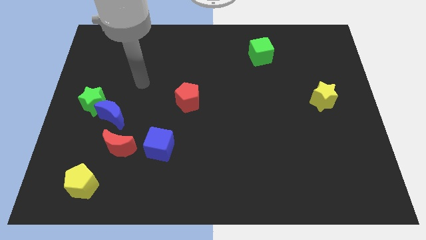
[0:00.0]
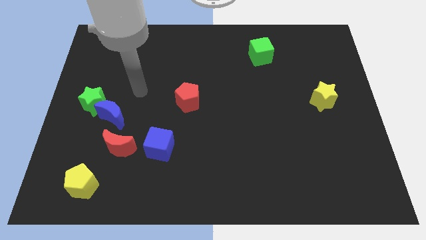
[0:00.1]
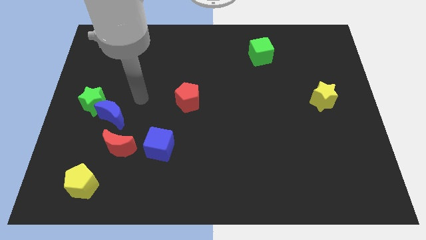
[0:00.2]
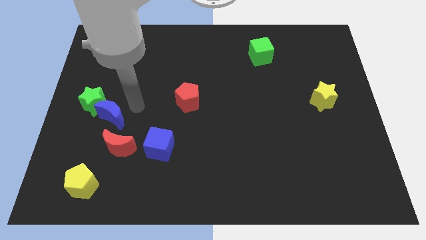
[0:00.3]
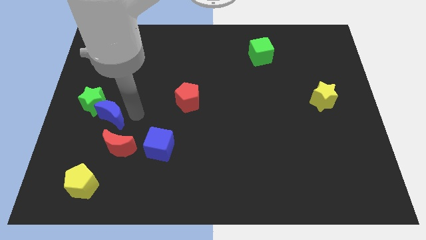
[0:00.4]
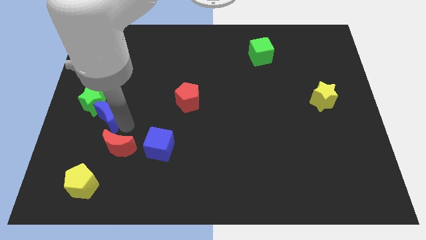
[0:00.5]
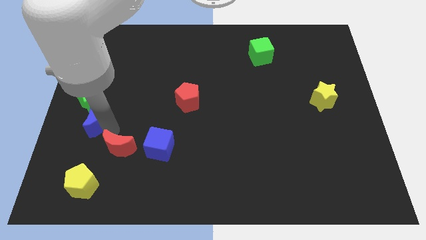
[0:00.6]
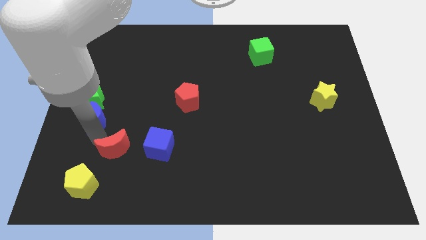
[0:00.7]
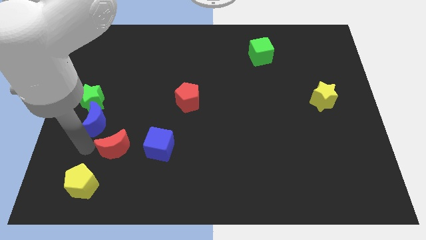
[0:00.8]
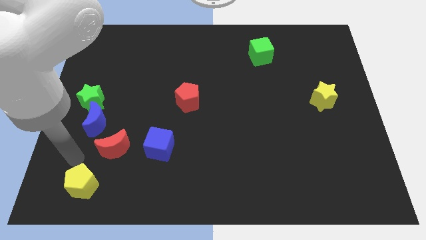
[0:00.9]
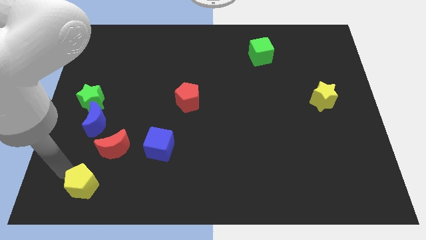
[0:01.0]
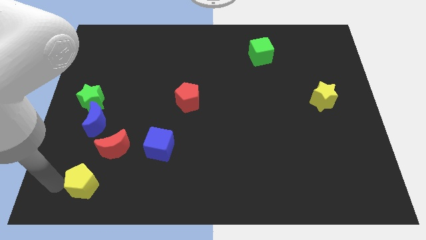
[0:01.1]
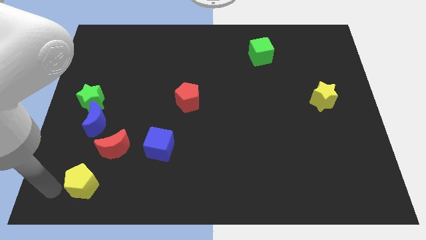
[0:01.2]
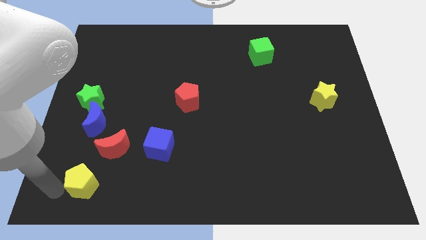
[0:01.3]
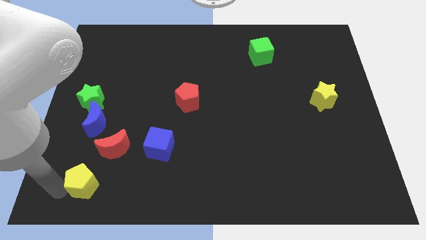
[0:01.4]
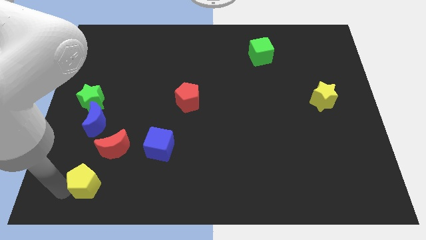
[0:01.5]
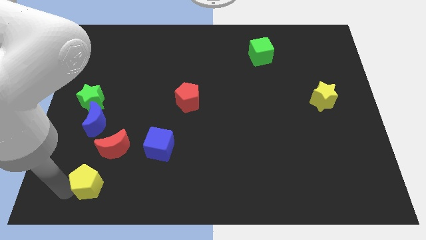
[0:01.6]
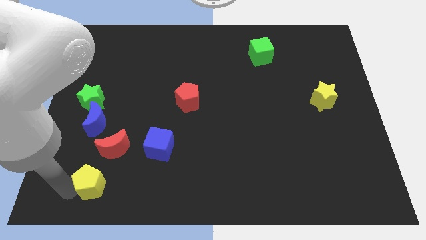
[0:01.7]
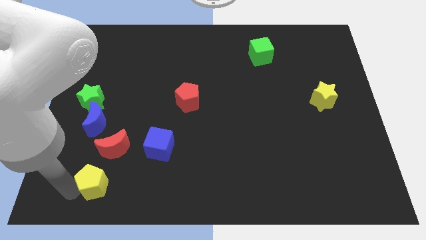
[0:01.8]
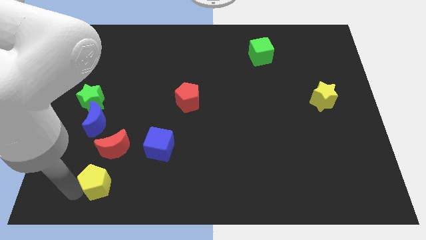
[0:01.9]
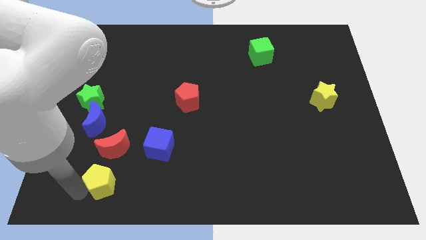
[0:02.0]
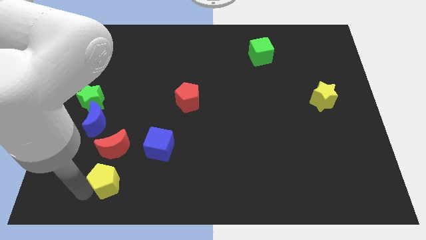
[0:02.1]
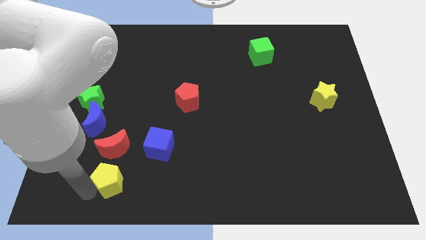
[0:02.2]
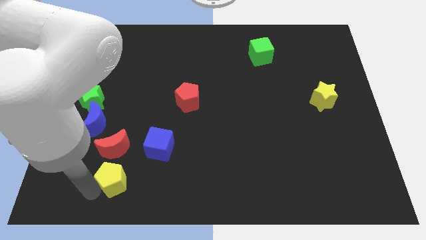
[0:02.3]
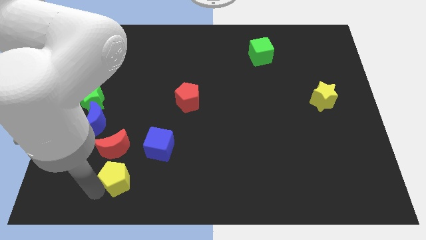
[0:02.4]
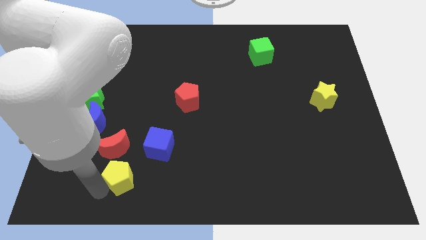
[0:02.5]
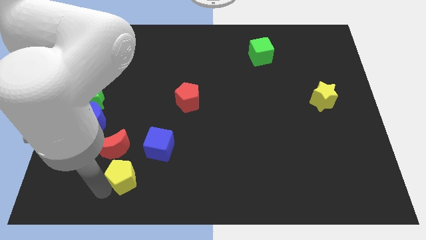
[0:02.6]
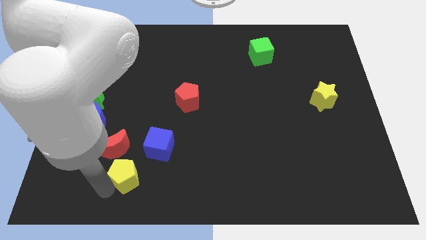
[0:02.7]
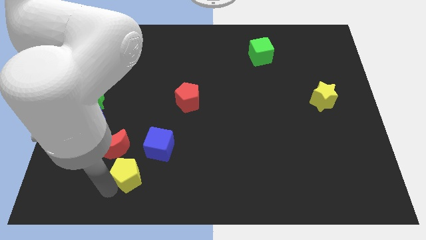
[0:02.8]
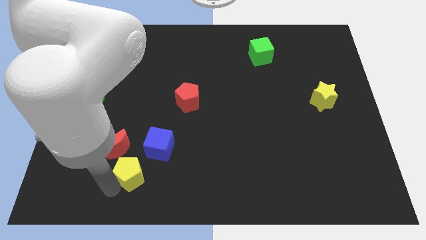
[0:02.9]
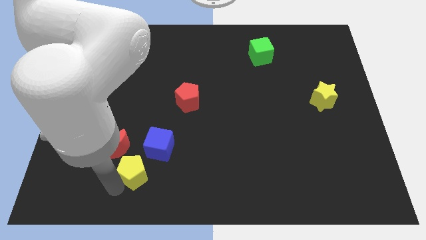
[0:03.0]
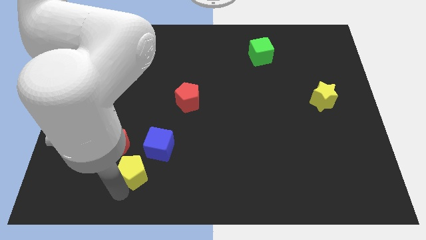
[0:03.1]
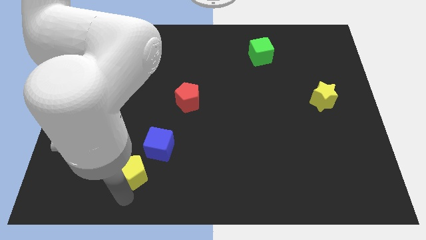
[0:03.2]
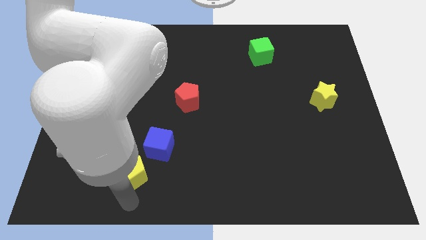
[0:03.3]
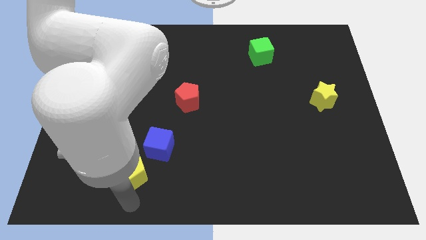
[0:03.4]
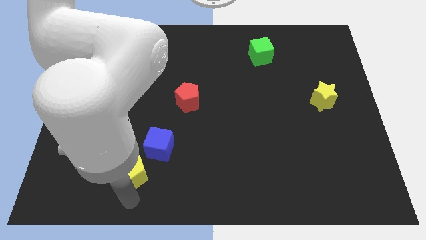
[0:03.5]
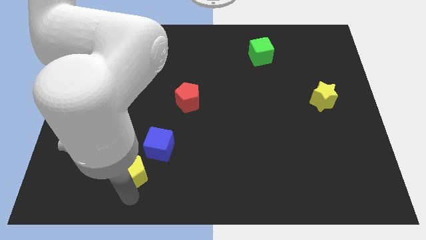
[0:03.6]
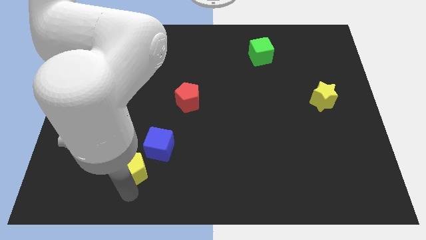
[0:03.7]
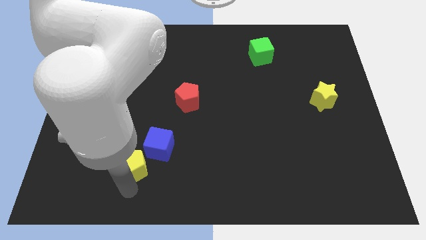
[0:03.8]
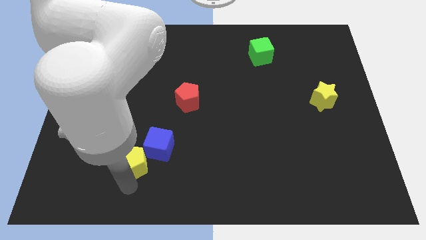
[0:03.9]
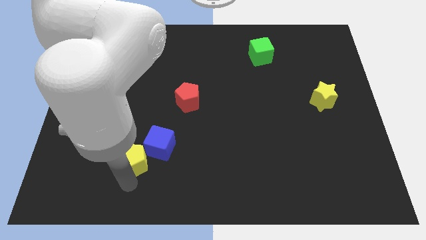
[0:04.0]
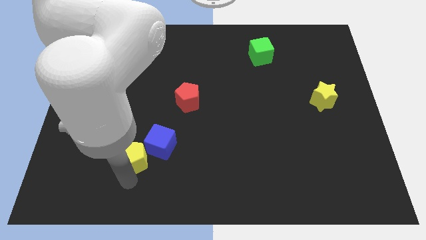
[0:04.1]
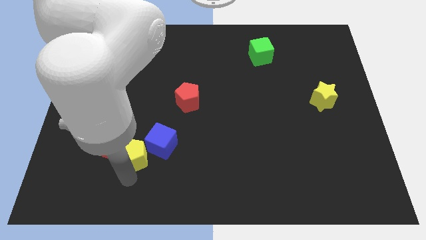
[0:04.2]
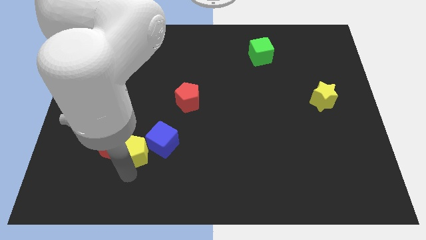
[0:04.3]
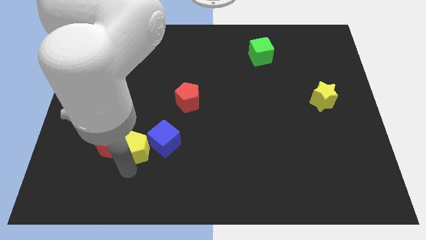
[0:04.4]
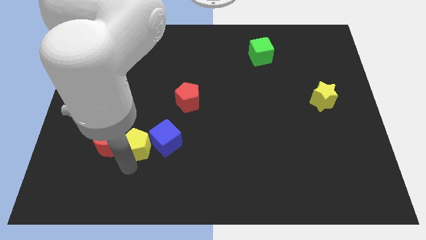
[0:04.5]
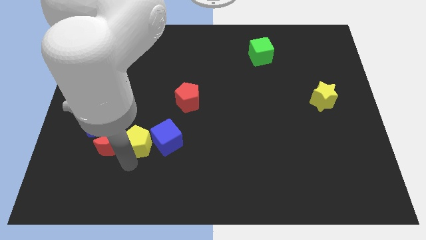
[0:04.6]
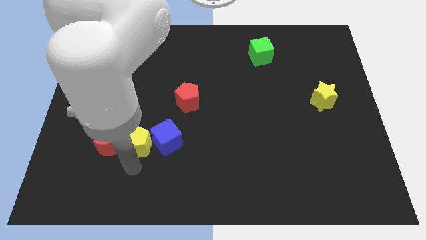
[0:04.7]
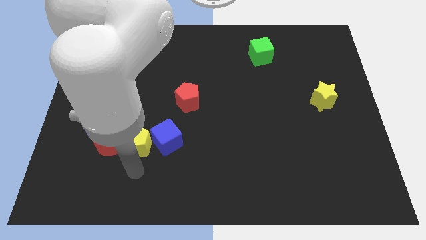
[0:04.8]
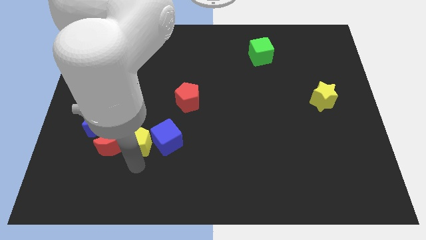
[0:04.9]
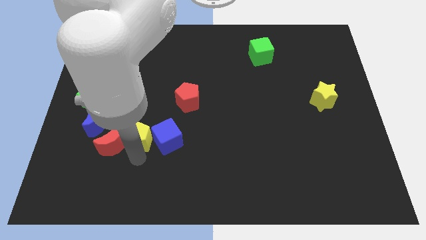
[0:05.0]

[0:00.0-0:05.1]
slide the yellow pentagon to the right of the blue moon

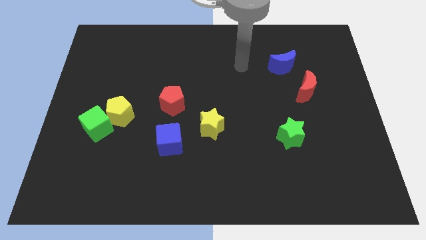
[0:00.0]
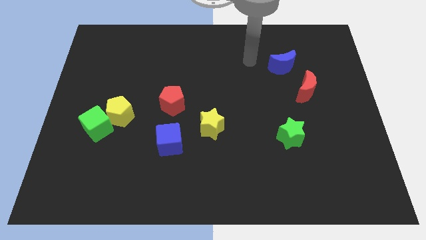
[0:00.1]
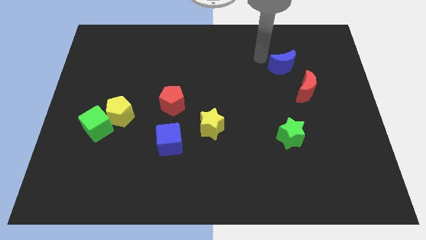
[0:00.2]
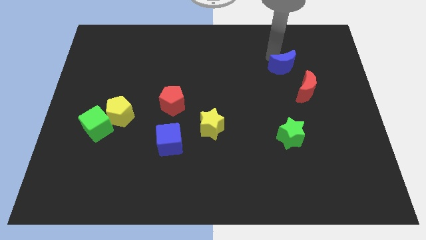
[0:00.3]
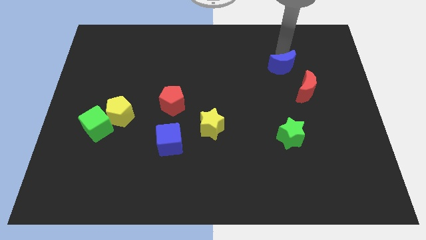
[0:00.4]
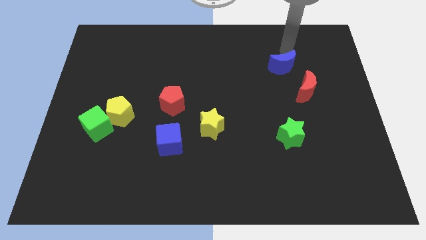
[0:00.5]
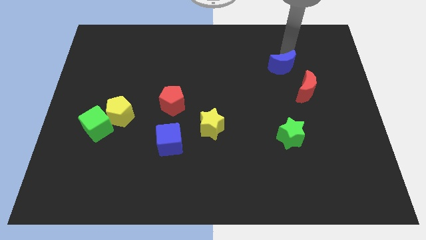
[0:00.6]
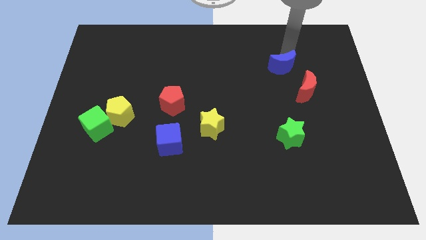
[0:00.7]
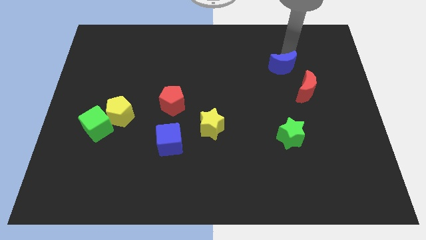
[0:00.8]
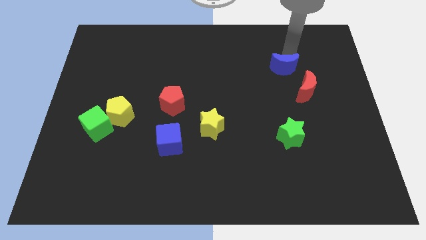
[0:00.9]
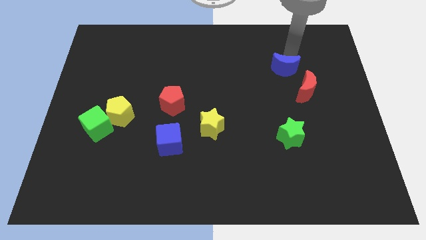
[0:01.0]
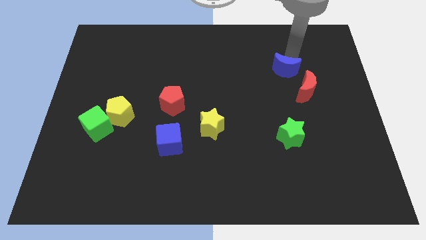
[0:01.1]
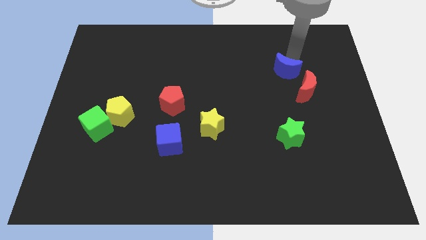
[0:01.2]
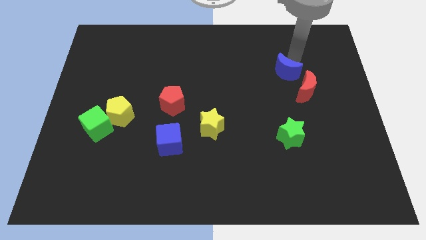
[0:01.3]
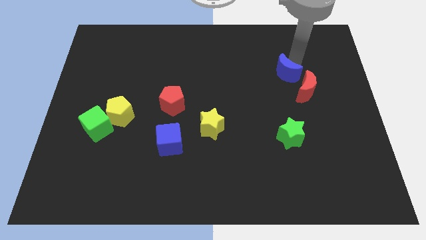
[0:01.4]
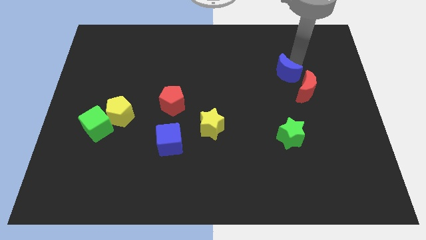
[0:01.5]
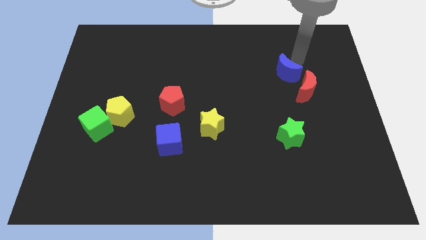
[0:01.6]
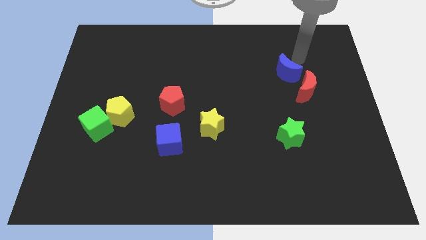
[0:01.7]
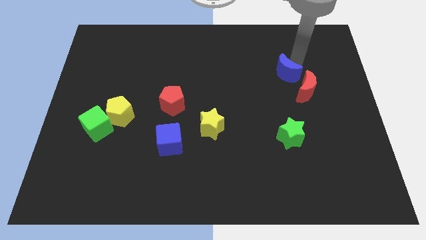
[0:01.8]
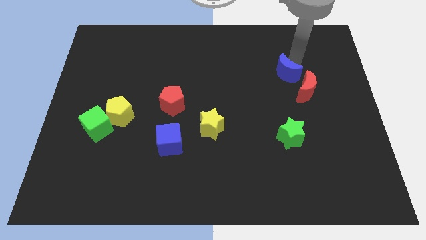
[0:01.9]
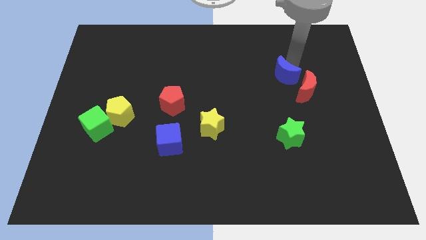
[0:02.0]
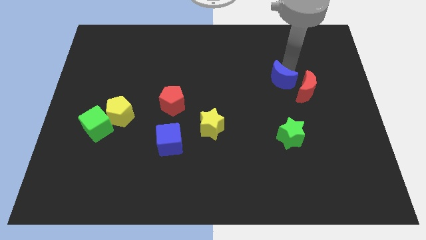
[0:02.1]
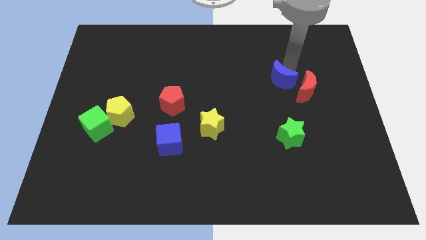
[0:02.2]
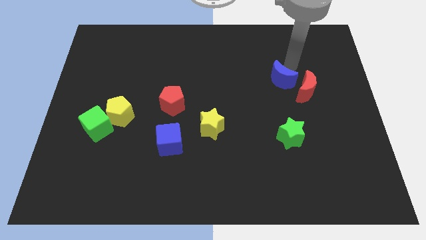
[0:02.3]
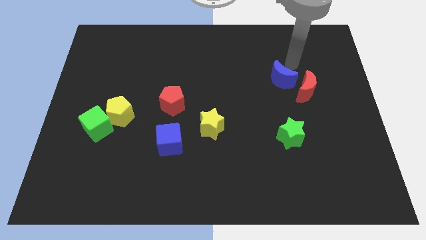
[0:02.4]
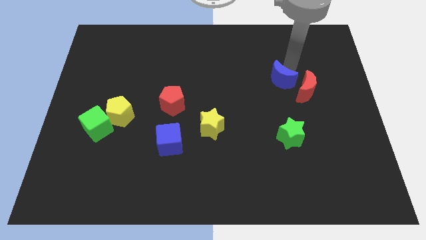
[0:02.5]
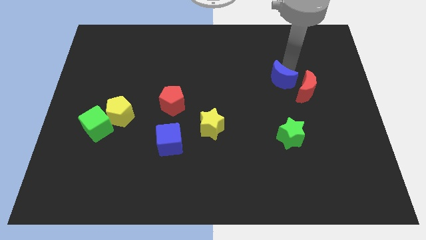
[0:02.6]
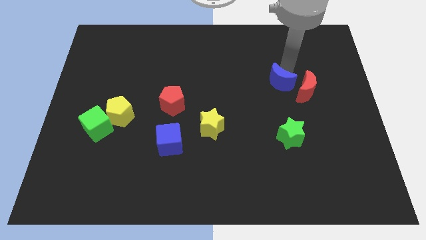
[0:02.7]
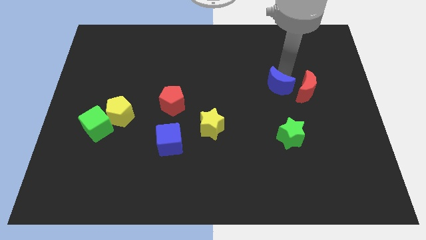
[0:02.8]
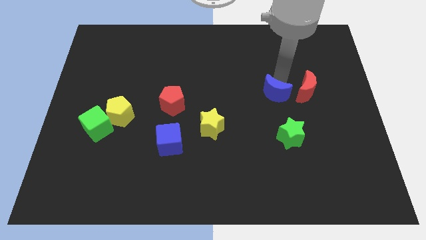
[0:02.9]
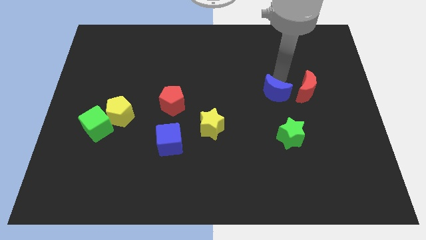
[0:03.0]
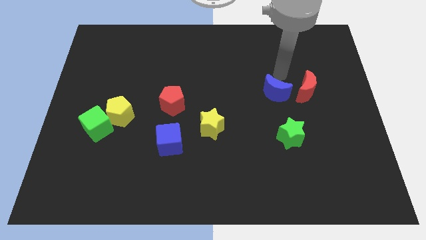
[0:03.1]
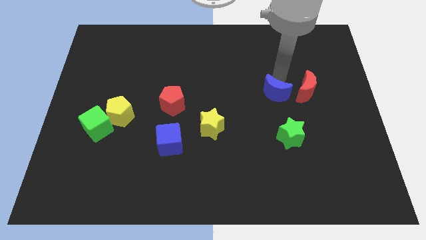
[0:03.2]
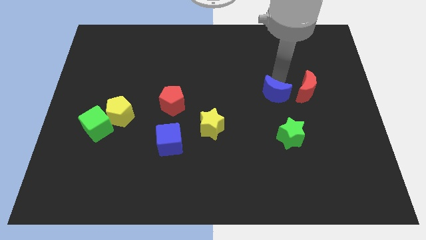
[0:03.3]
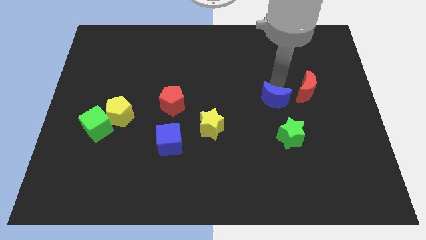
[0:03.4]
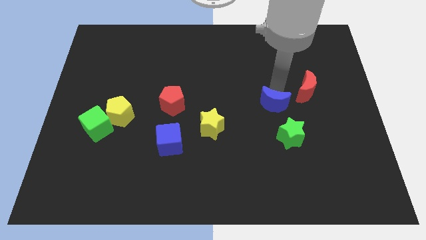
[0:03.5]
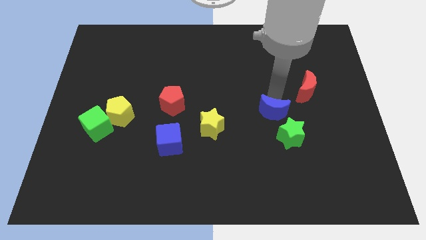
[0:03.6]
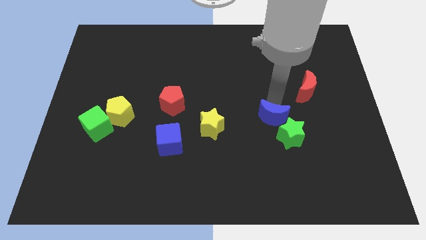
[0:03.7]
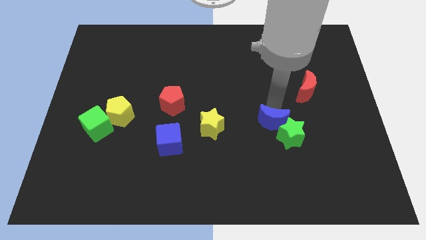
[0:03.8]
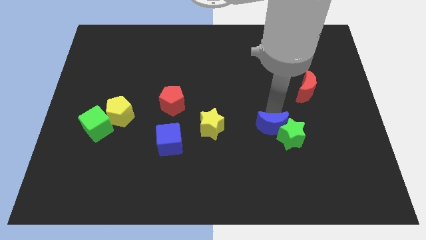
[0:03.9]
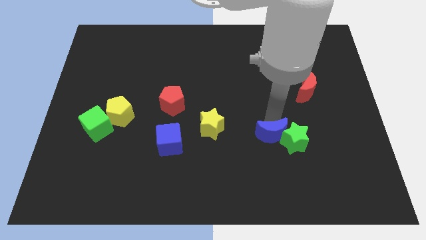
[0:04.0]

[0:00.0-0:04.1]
move the blue moon diagonally down and to the left of the green star
